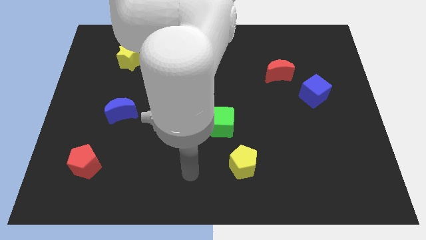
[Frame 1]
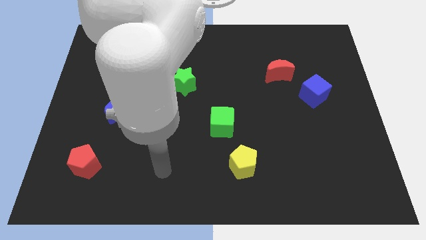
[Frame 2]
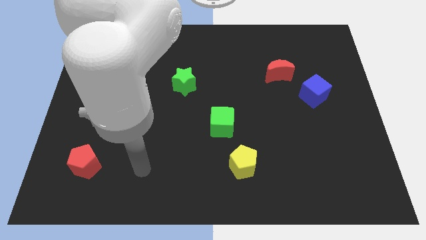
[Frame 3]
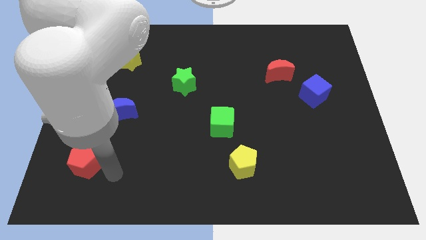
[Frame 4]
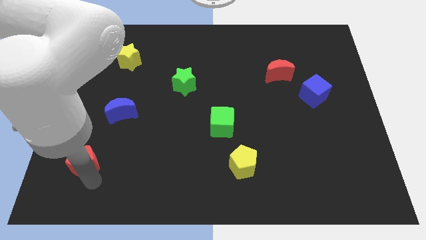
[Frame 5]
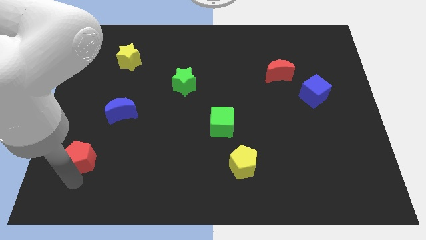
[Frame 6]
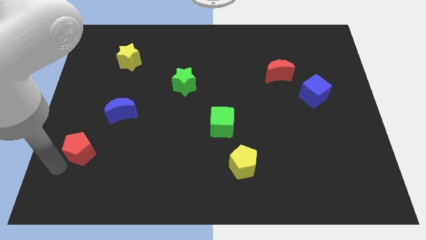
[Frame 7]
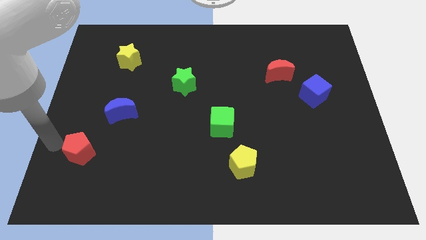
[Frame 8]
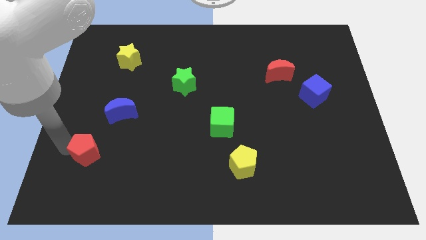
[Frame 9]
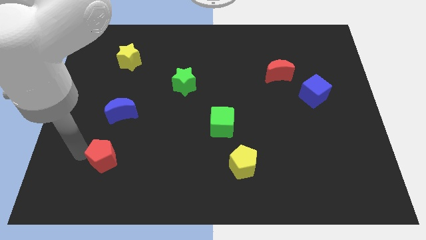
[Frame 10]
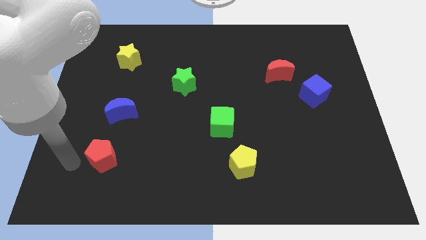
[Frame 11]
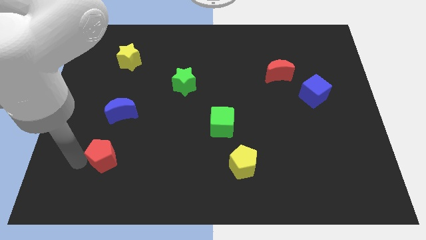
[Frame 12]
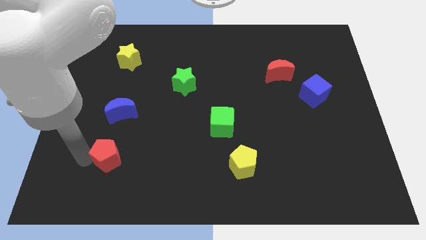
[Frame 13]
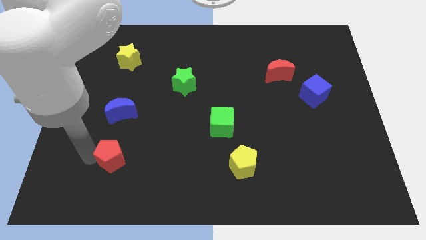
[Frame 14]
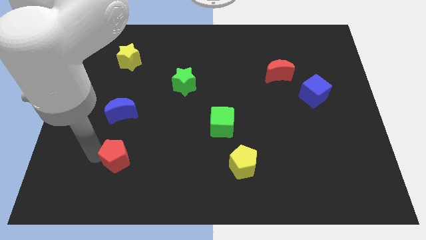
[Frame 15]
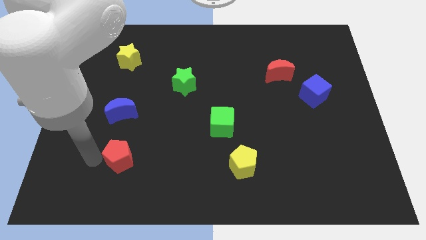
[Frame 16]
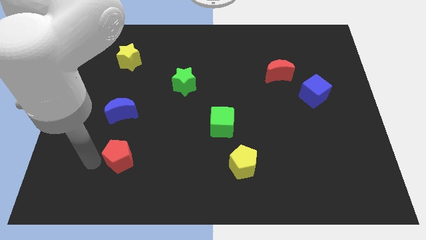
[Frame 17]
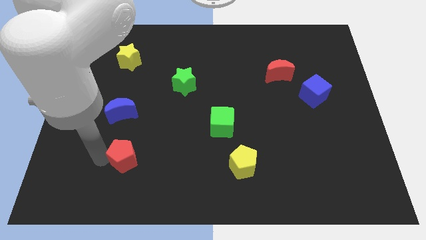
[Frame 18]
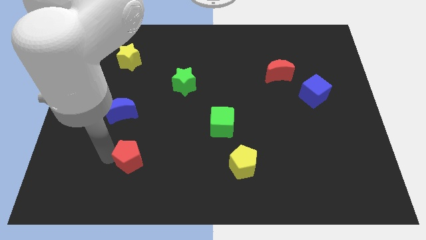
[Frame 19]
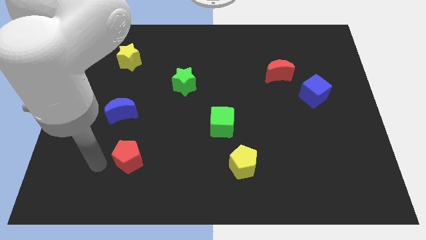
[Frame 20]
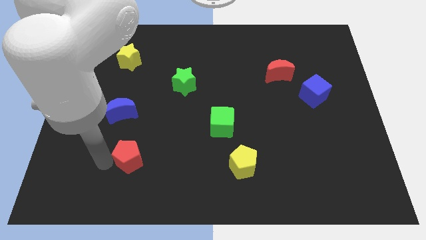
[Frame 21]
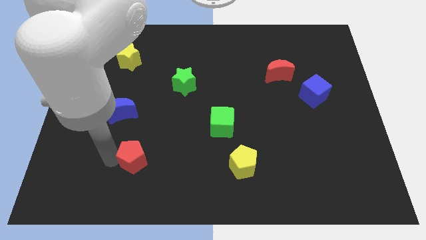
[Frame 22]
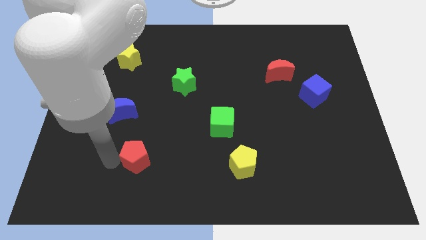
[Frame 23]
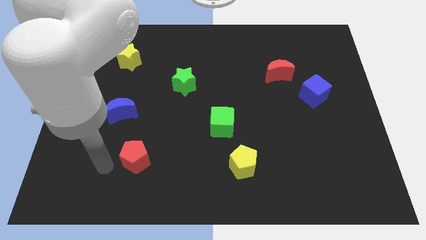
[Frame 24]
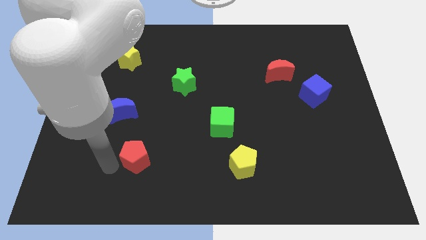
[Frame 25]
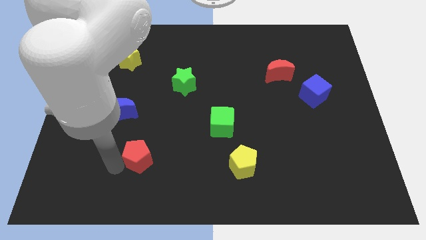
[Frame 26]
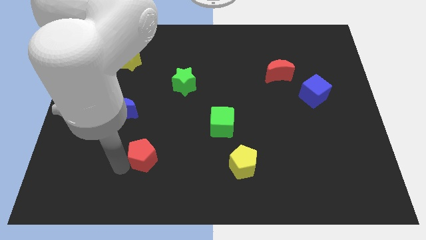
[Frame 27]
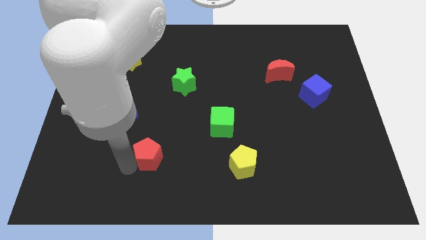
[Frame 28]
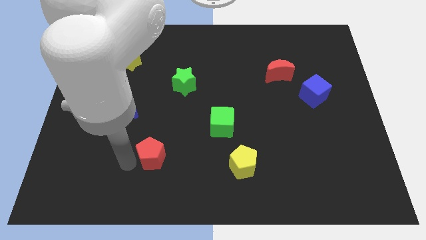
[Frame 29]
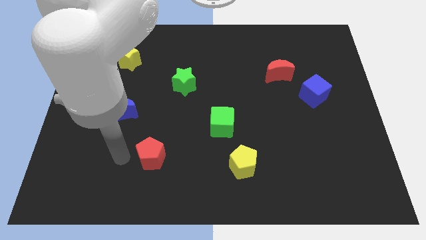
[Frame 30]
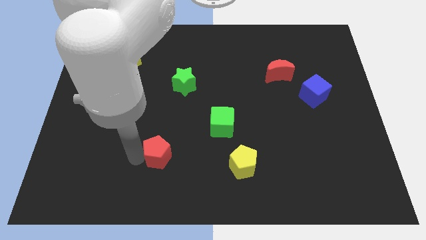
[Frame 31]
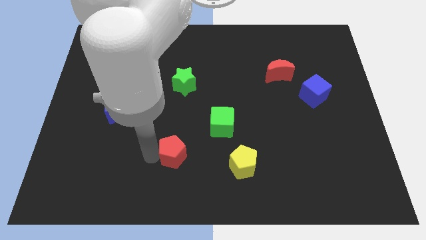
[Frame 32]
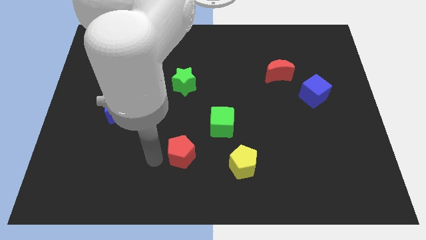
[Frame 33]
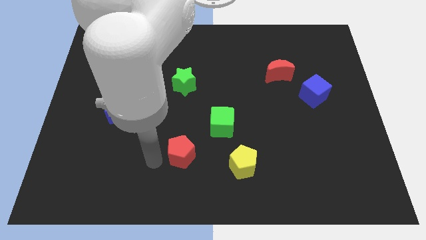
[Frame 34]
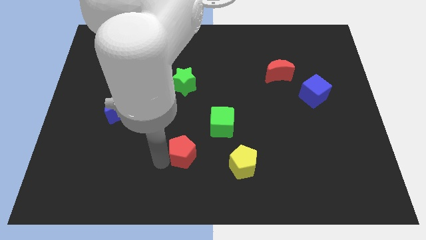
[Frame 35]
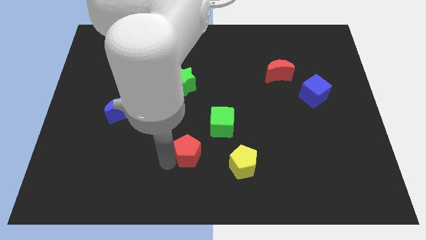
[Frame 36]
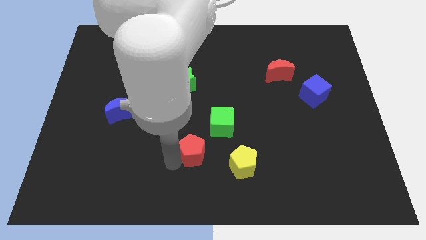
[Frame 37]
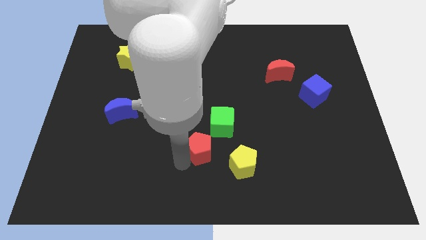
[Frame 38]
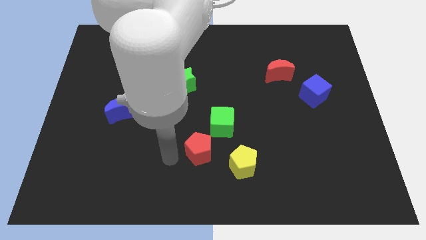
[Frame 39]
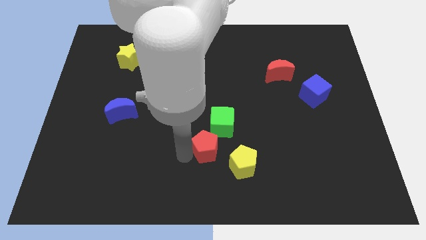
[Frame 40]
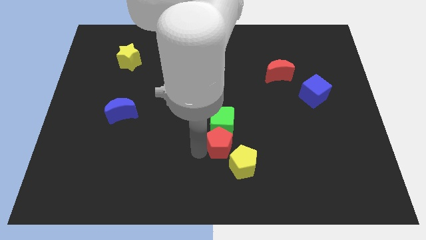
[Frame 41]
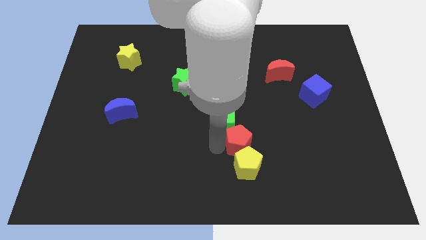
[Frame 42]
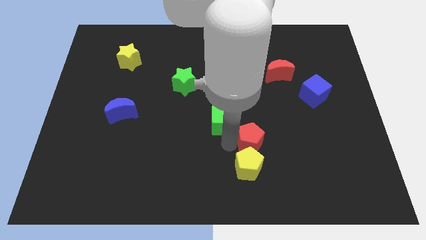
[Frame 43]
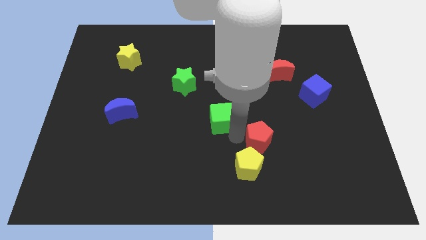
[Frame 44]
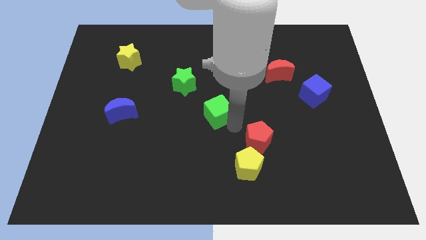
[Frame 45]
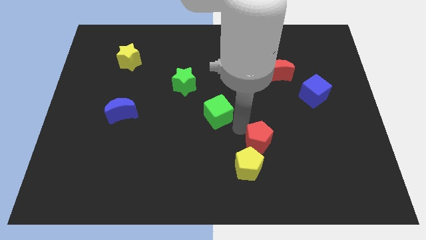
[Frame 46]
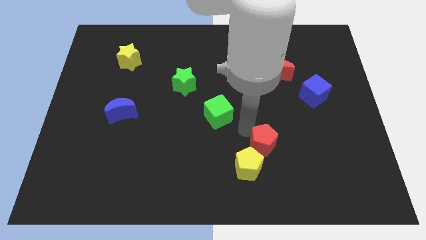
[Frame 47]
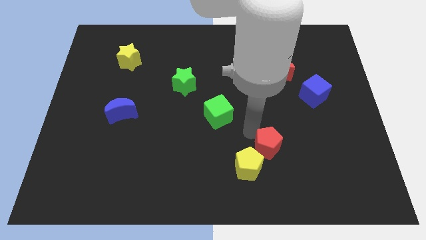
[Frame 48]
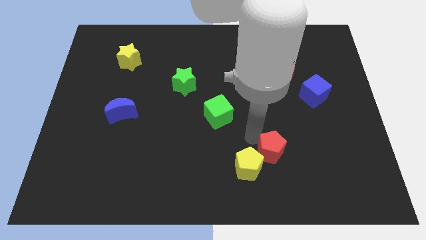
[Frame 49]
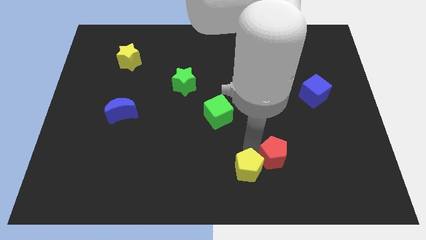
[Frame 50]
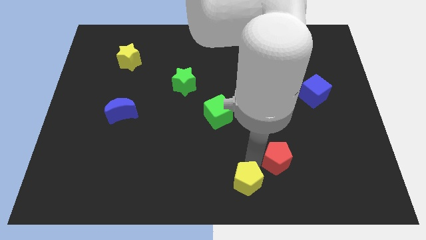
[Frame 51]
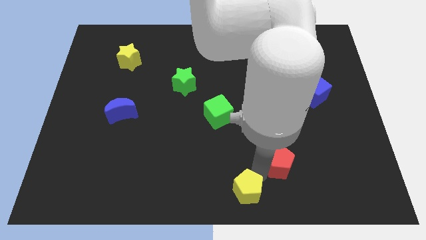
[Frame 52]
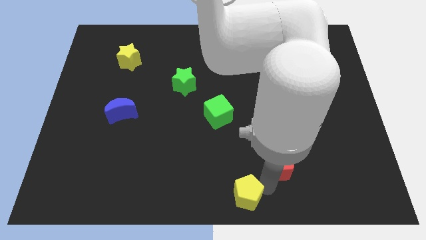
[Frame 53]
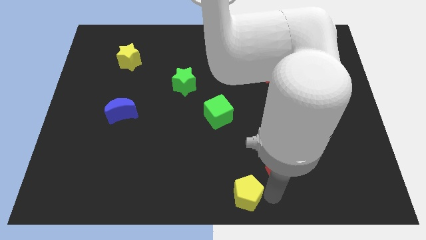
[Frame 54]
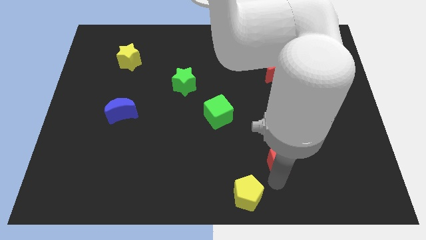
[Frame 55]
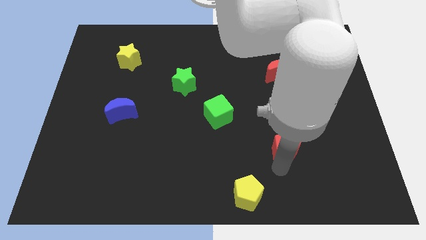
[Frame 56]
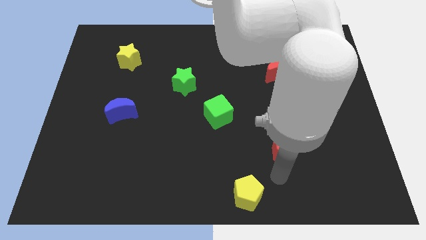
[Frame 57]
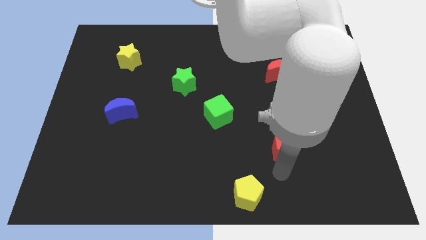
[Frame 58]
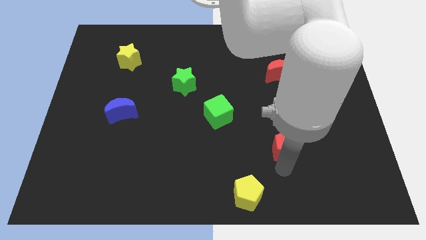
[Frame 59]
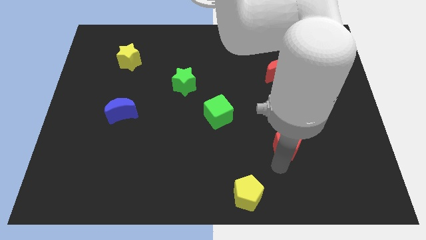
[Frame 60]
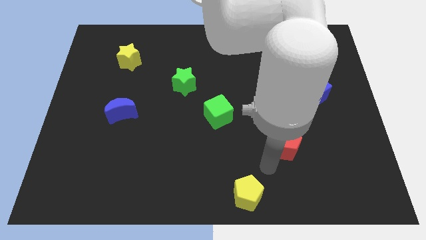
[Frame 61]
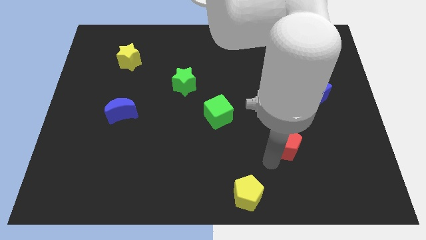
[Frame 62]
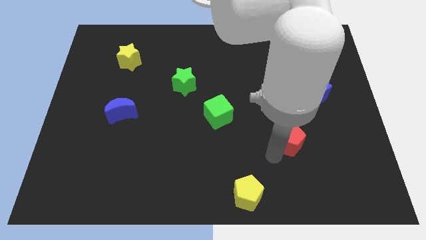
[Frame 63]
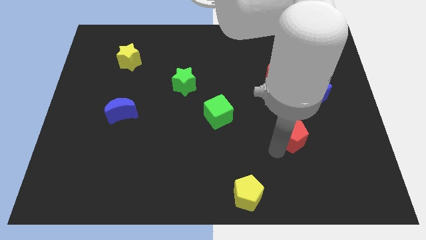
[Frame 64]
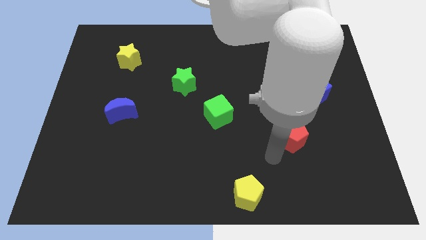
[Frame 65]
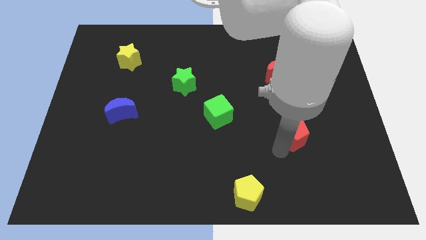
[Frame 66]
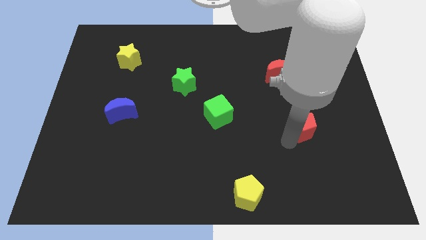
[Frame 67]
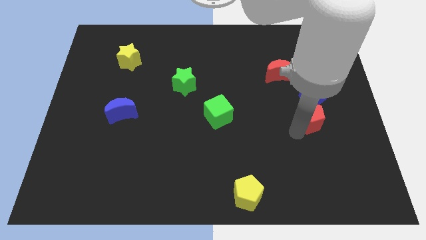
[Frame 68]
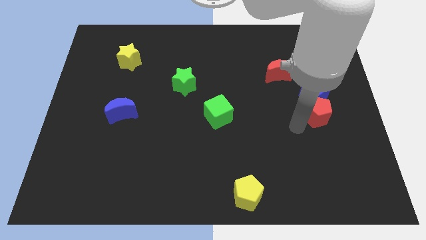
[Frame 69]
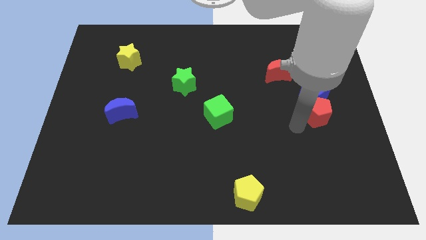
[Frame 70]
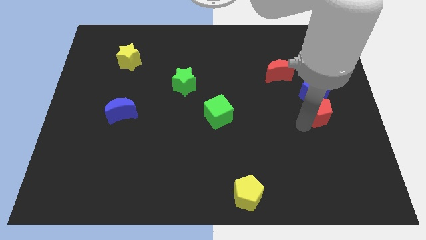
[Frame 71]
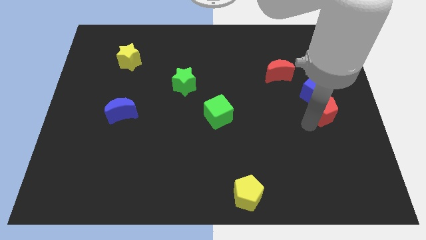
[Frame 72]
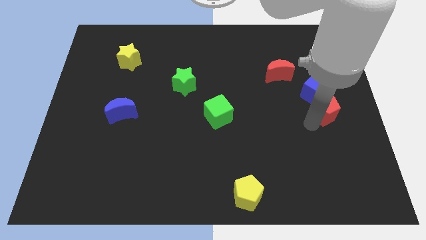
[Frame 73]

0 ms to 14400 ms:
move the red pentagon to the right side
